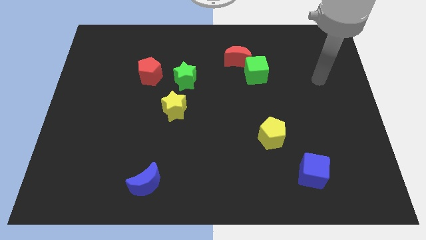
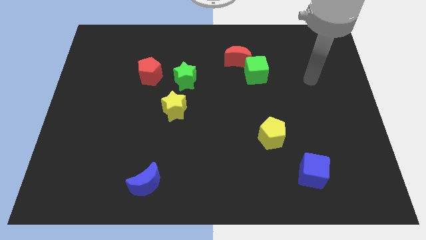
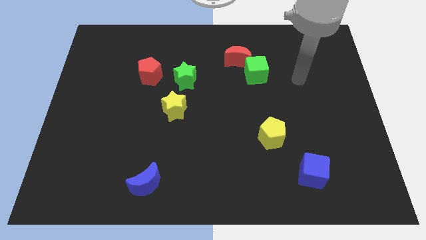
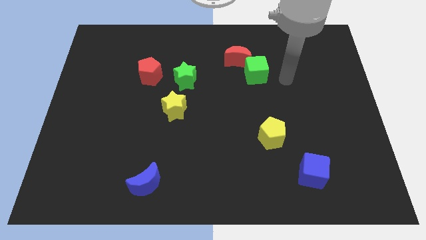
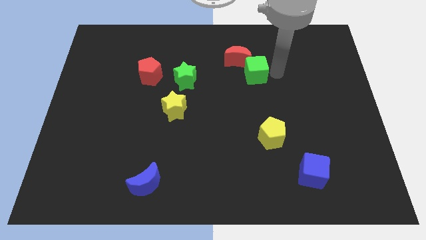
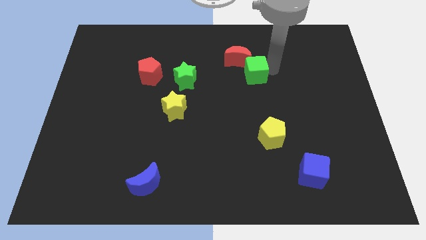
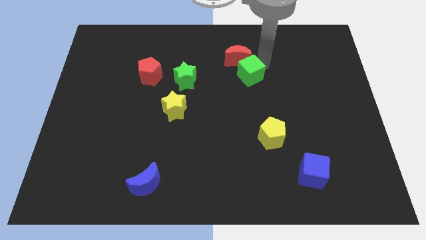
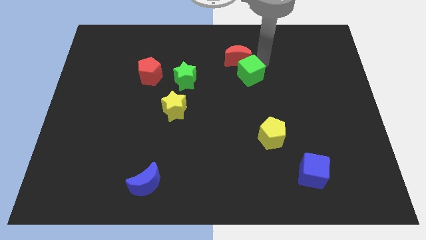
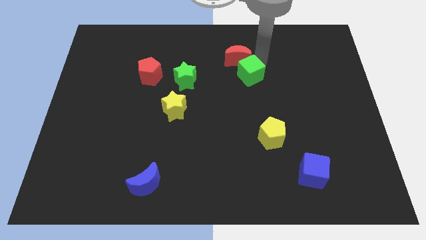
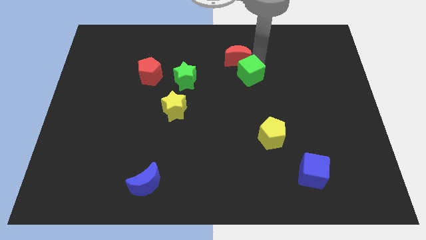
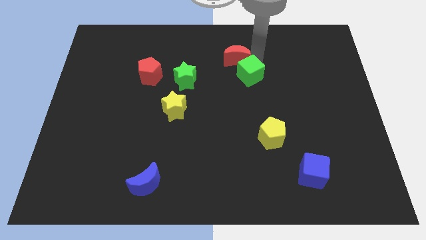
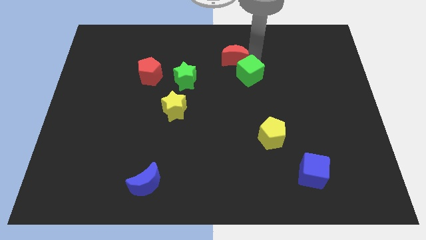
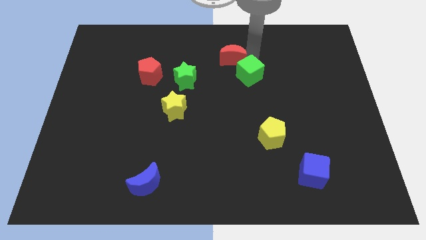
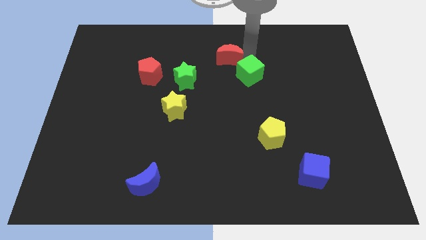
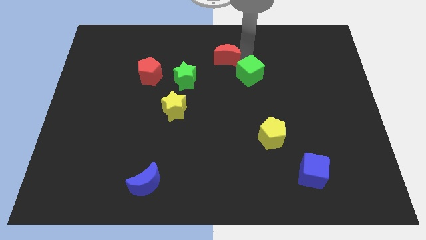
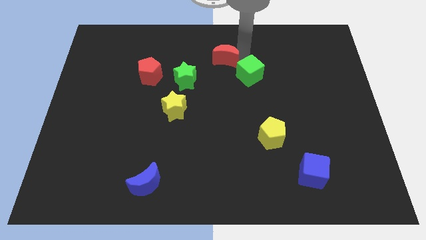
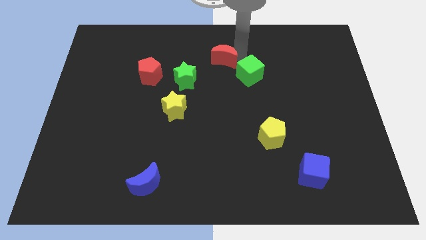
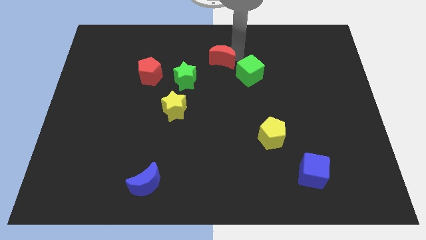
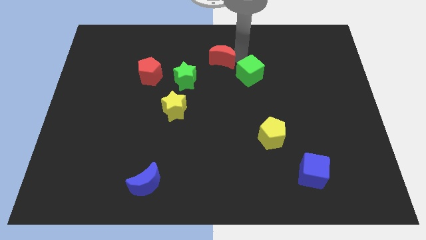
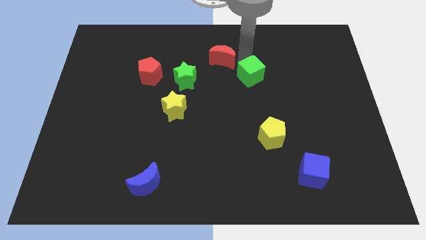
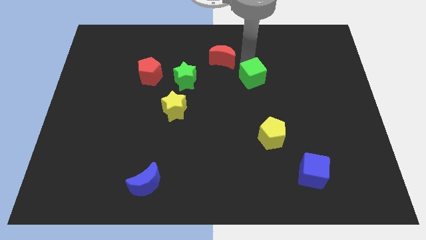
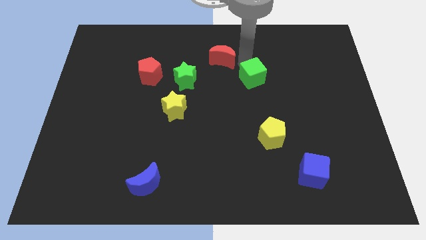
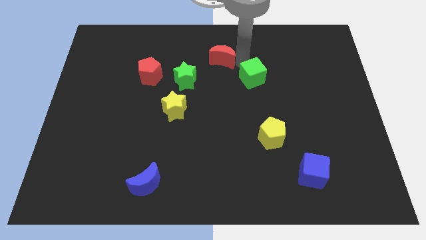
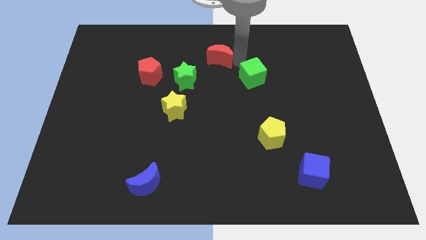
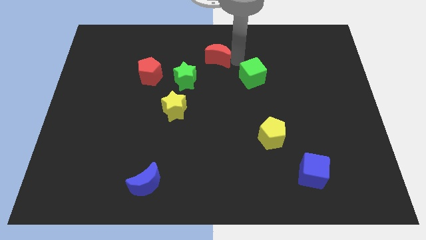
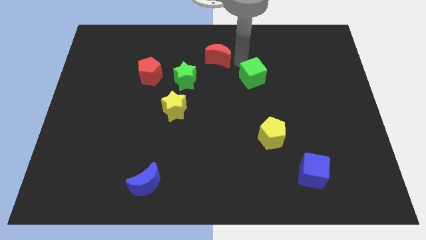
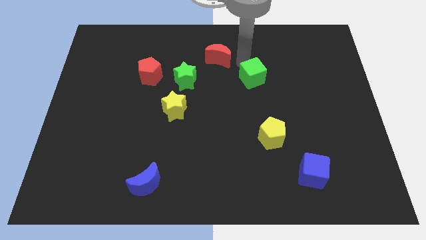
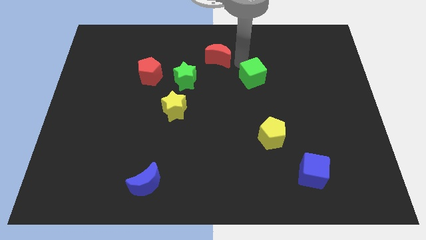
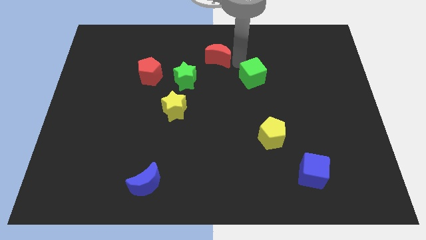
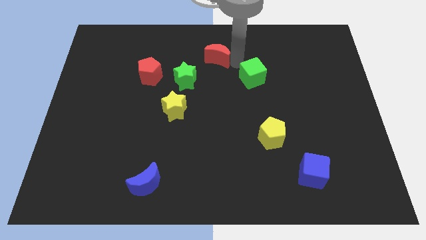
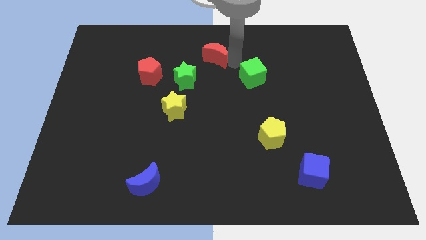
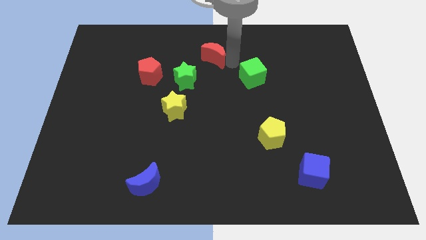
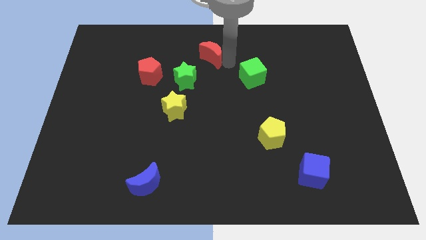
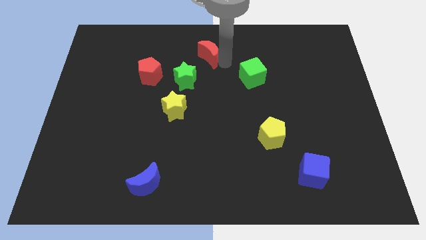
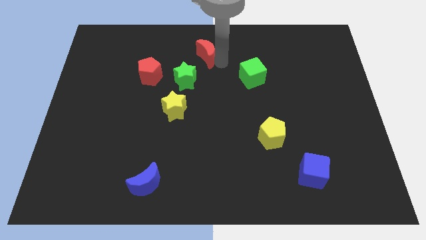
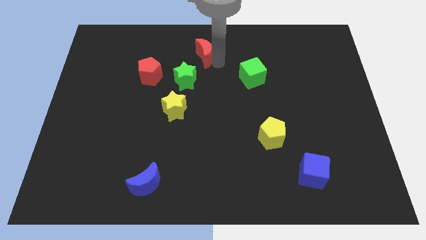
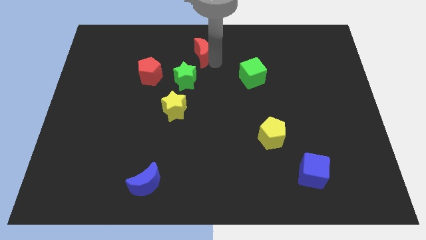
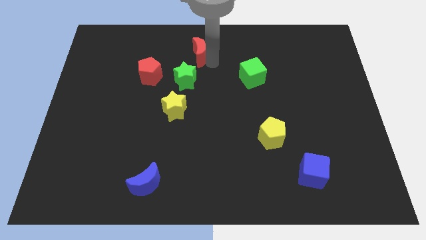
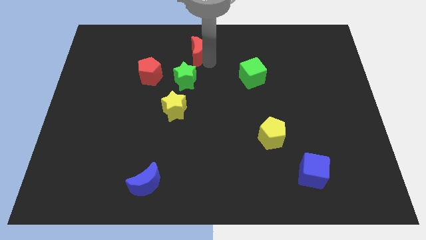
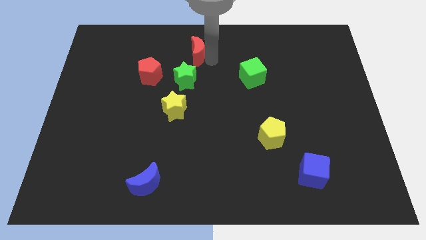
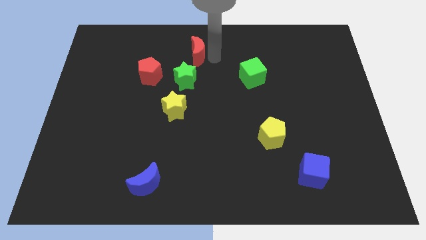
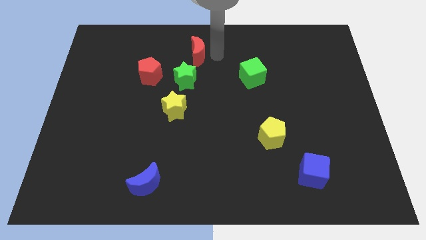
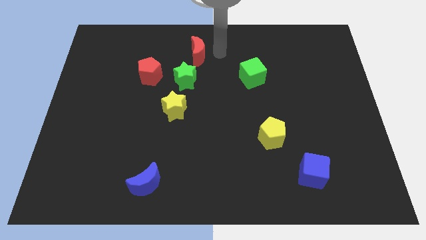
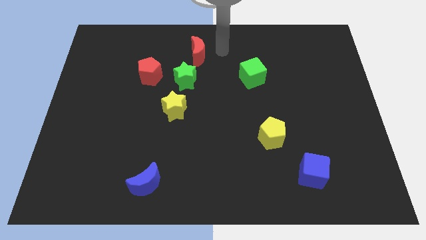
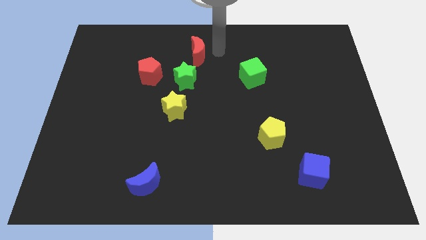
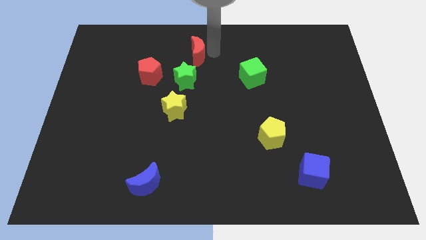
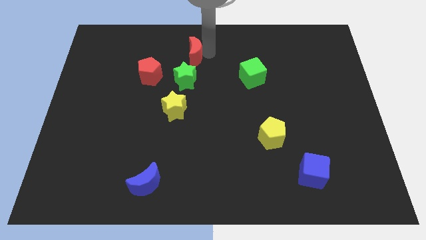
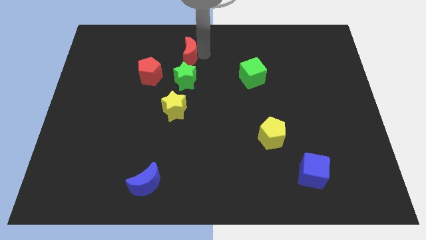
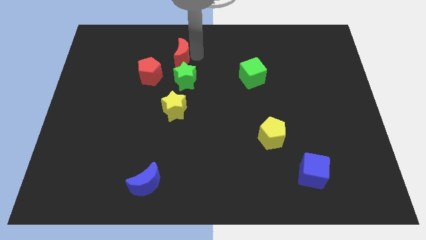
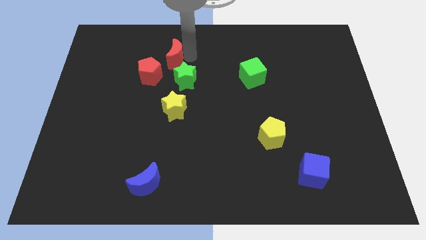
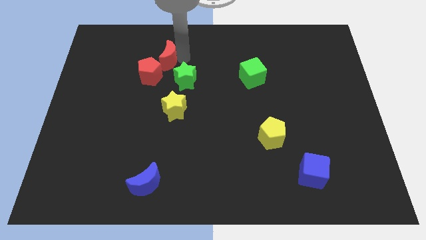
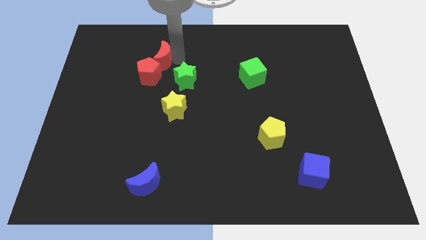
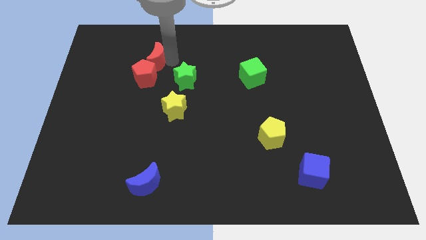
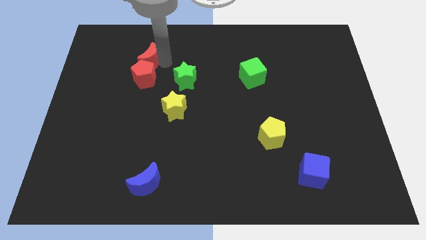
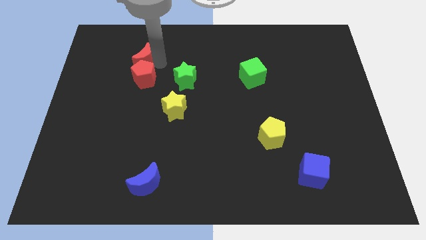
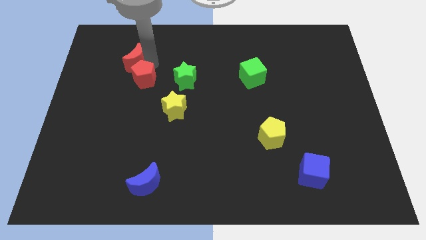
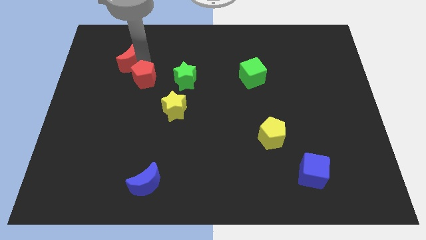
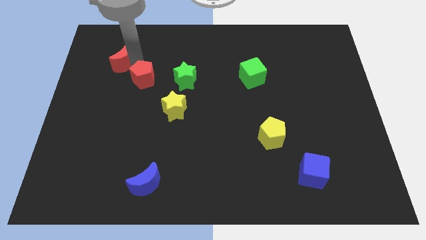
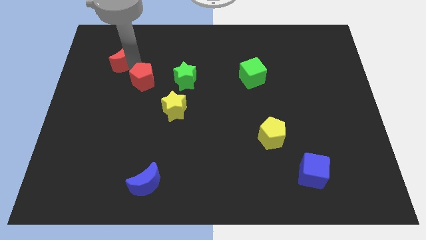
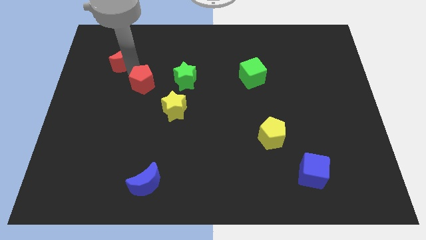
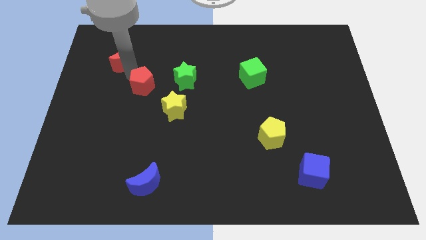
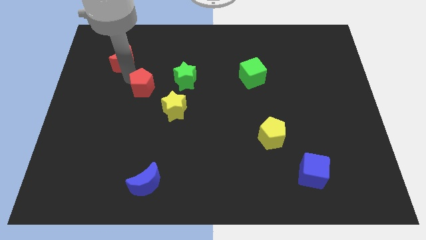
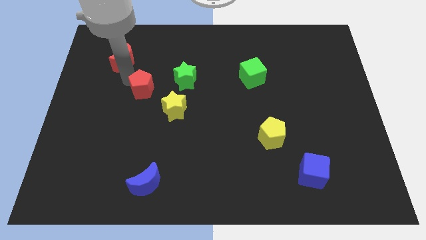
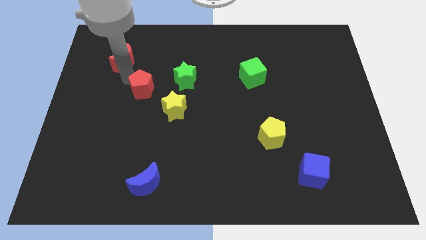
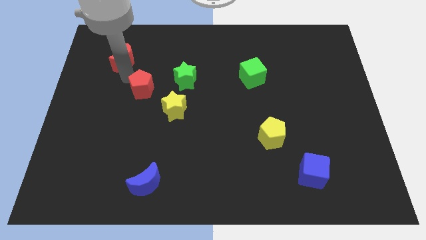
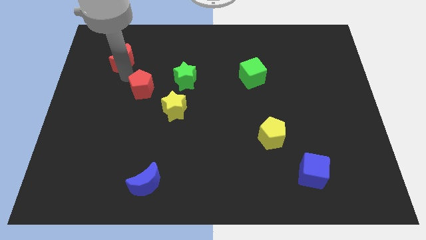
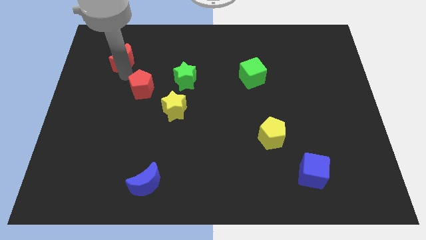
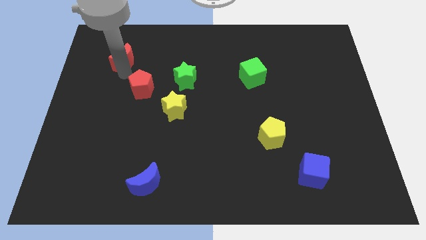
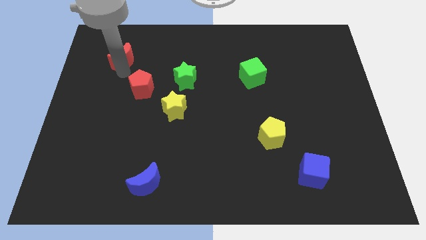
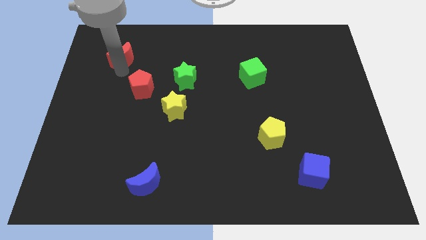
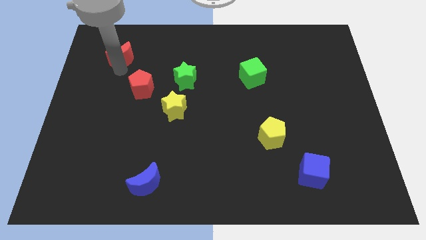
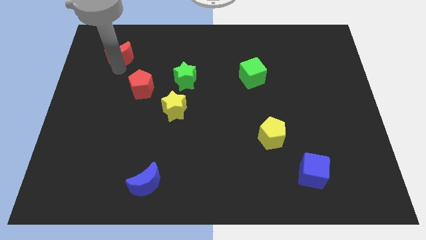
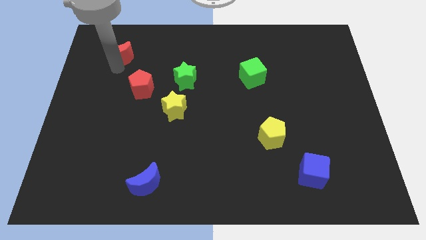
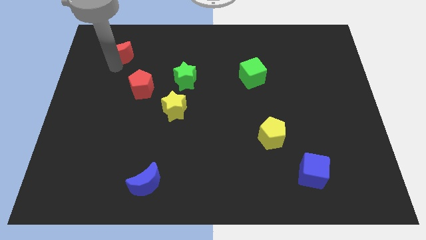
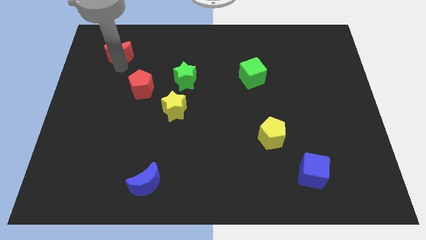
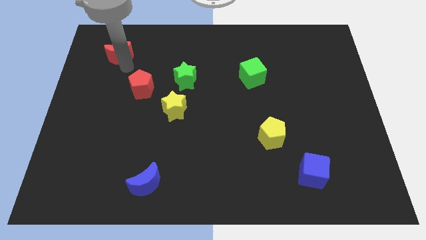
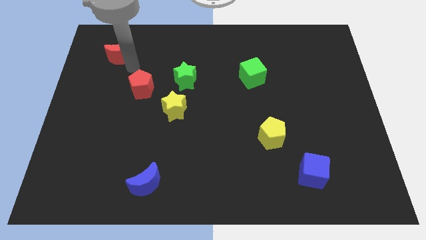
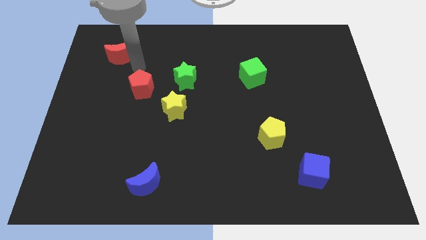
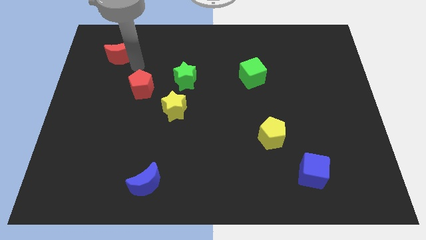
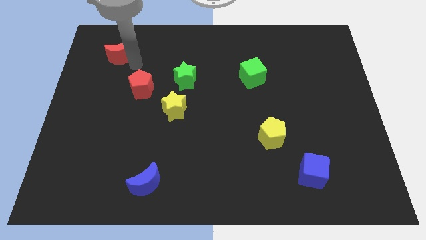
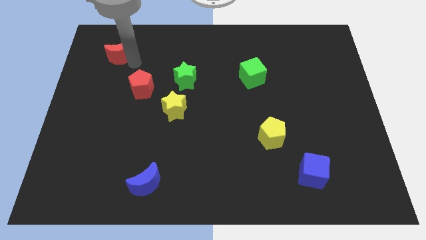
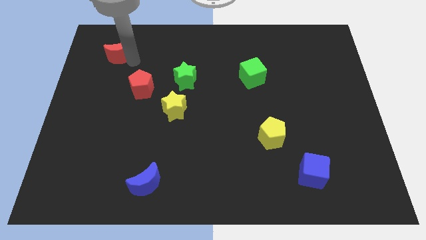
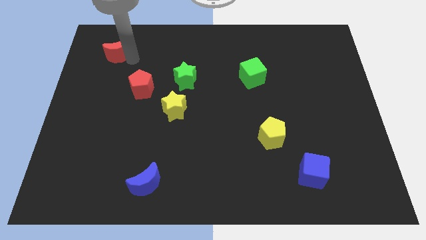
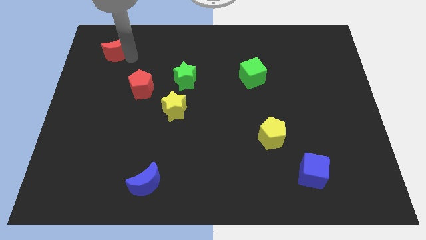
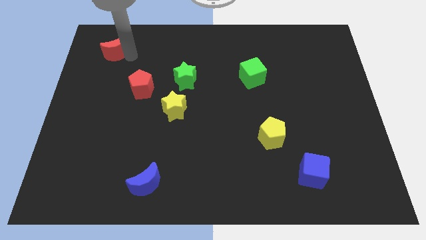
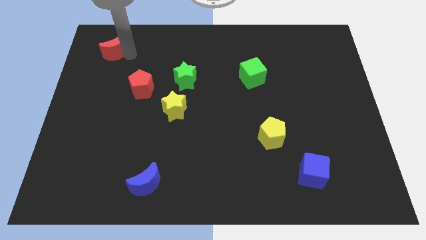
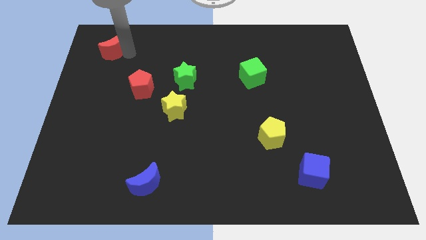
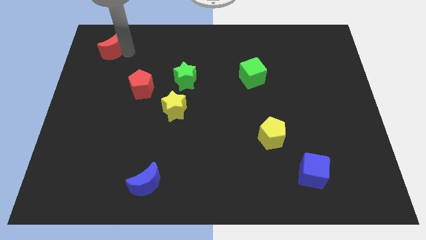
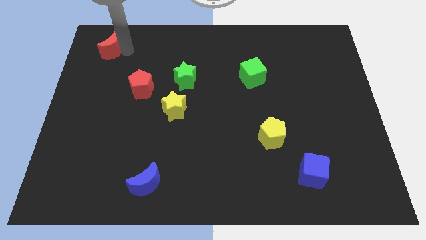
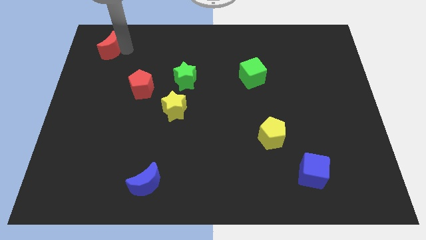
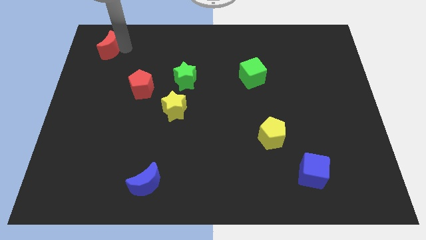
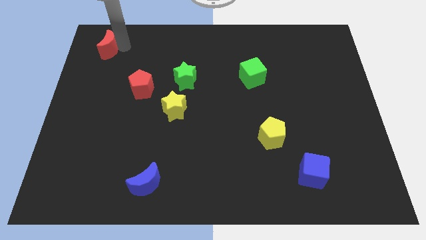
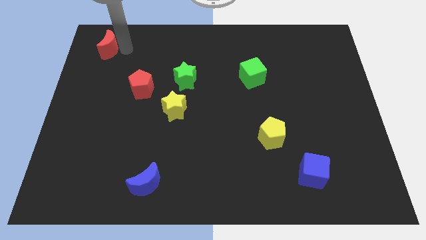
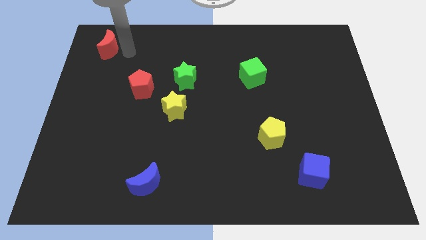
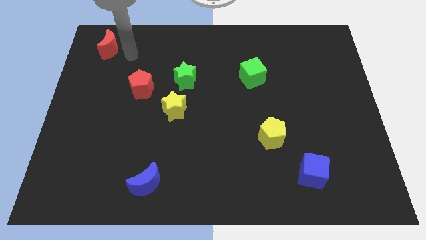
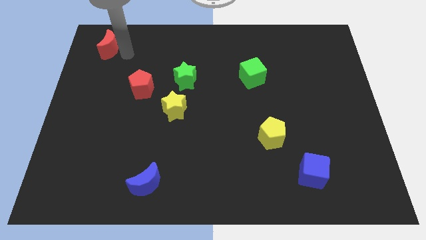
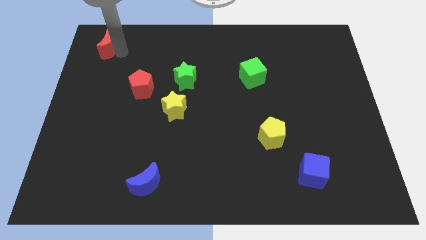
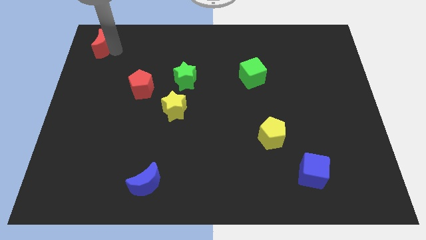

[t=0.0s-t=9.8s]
push the red moon to the top left of the board
